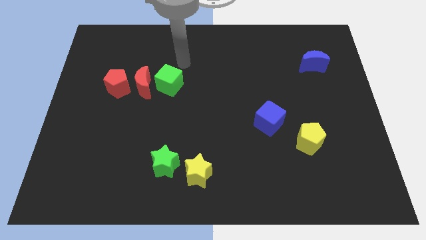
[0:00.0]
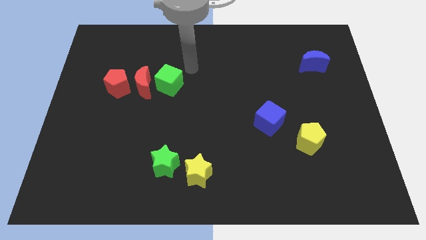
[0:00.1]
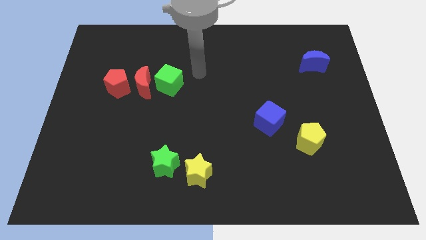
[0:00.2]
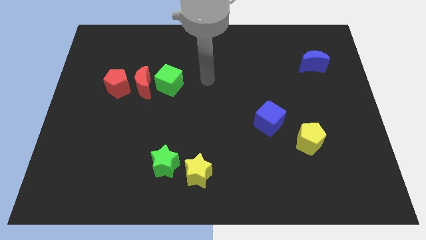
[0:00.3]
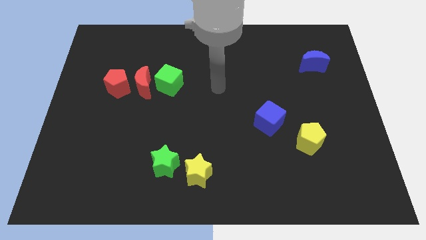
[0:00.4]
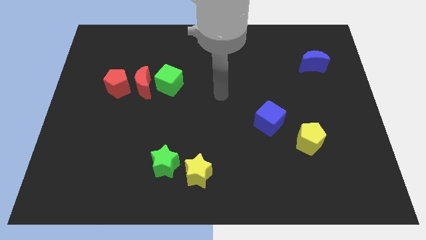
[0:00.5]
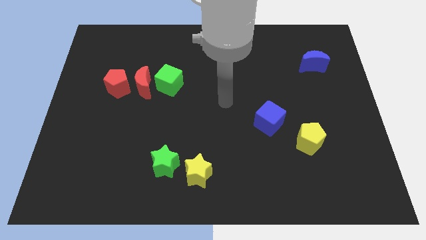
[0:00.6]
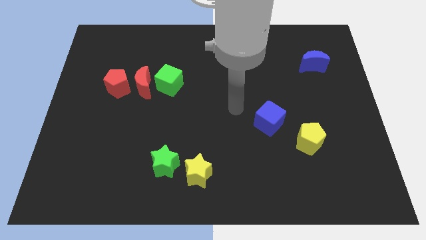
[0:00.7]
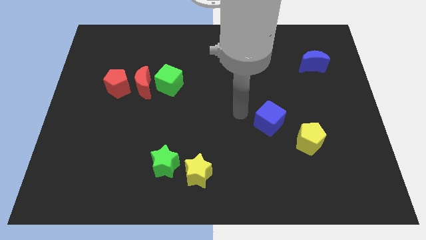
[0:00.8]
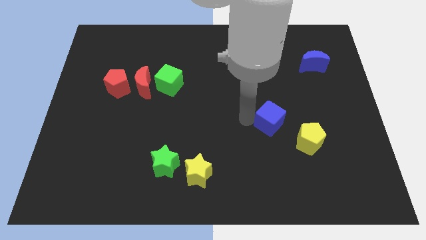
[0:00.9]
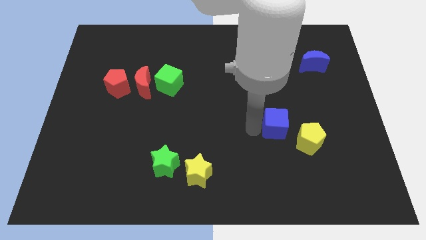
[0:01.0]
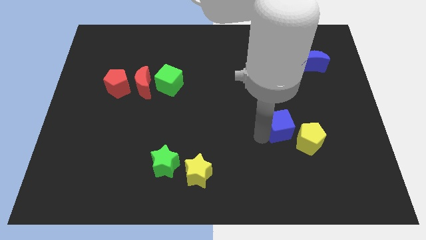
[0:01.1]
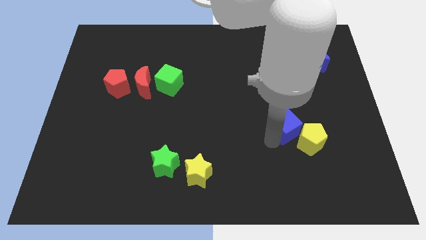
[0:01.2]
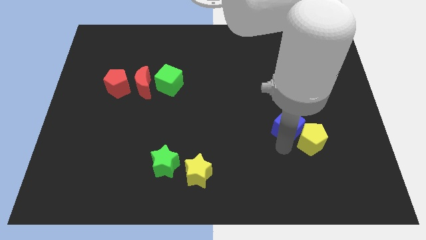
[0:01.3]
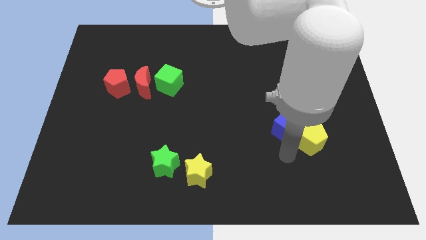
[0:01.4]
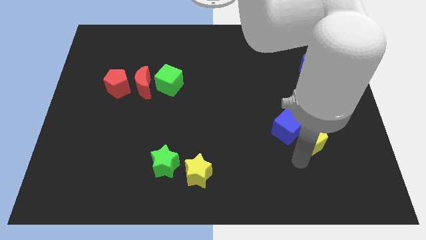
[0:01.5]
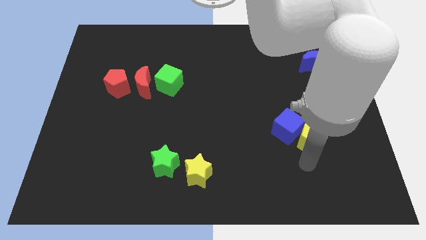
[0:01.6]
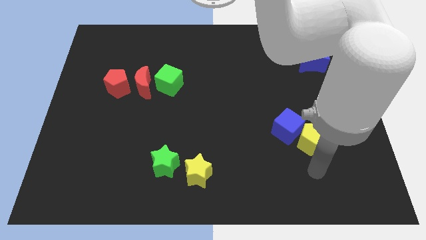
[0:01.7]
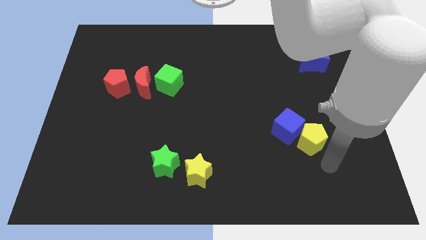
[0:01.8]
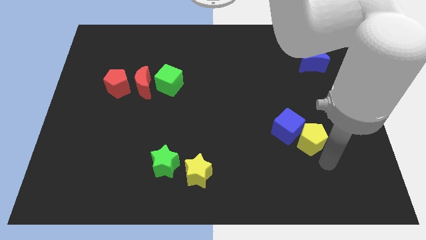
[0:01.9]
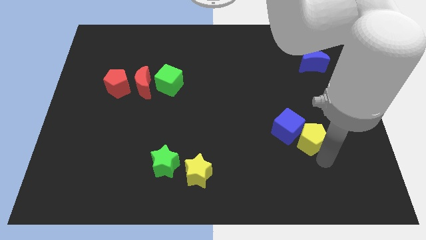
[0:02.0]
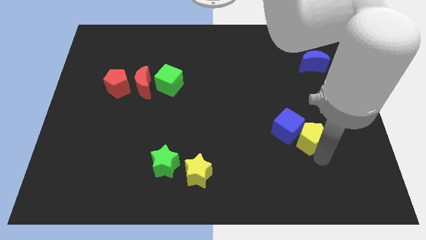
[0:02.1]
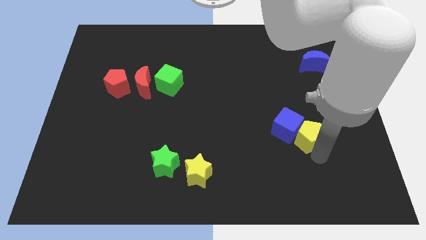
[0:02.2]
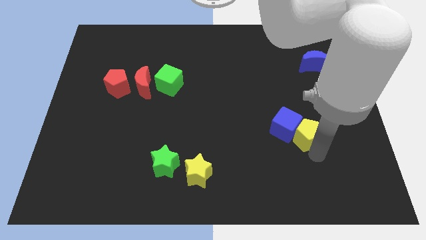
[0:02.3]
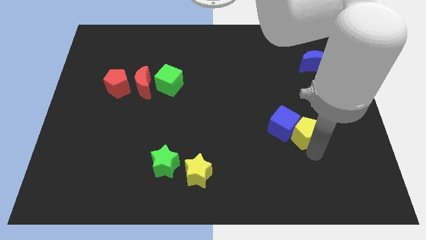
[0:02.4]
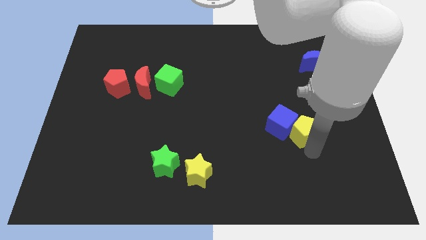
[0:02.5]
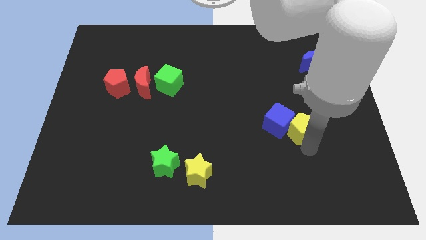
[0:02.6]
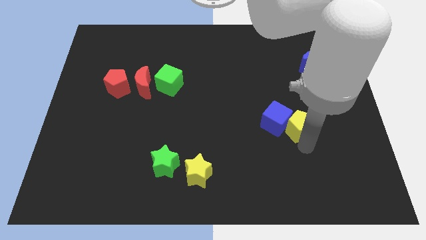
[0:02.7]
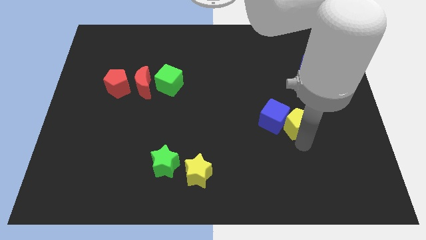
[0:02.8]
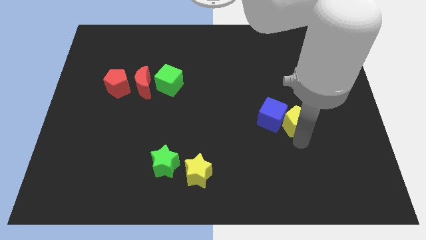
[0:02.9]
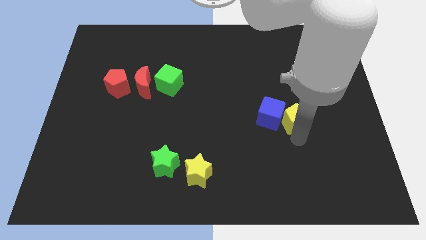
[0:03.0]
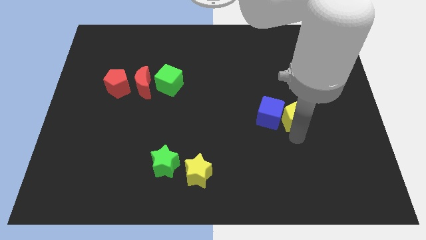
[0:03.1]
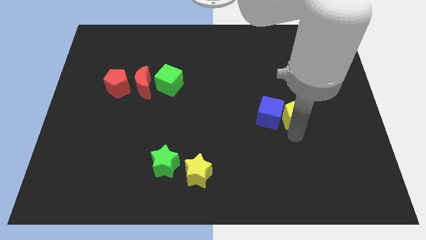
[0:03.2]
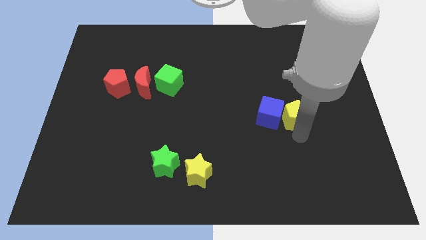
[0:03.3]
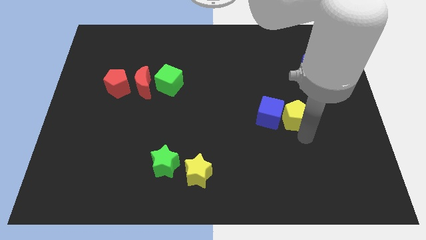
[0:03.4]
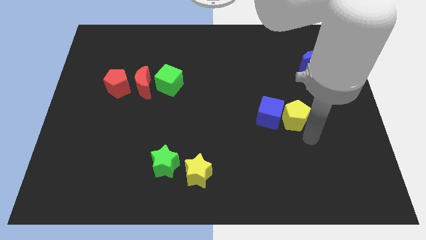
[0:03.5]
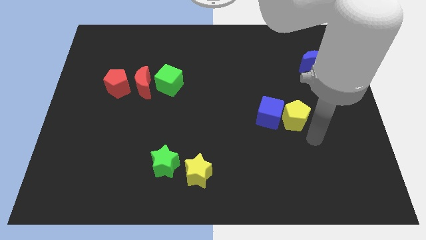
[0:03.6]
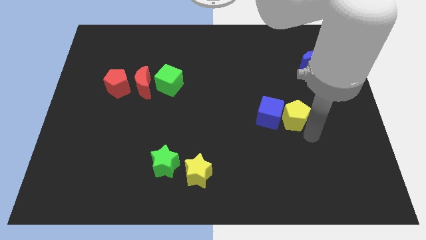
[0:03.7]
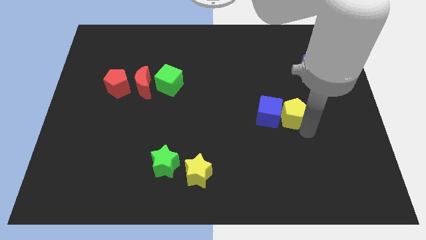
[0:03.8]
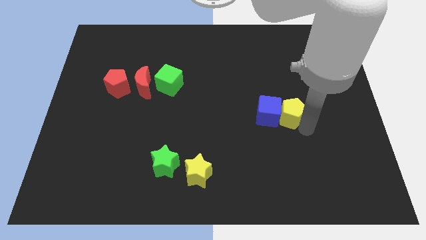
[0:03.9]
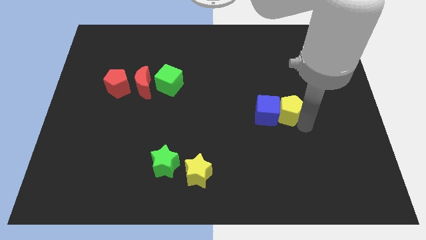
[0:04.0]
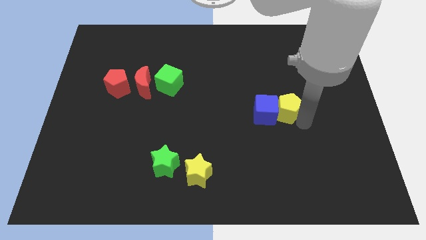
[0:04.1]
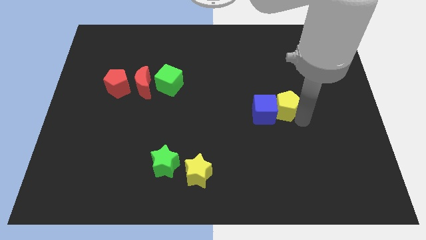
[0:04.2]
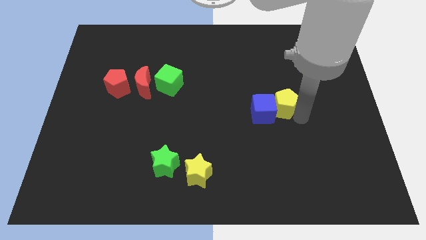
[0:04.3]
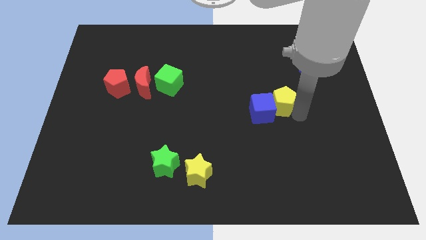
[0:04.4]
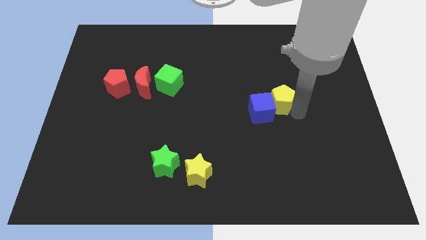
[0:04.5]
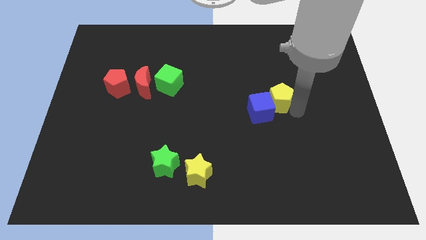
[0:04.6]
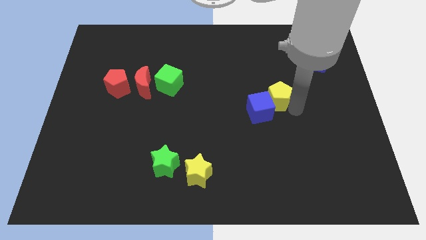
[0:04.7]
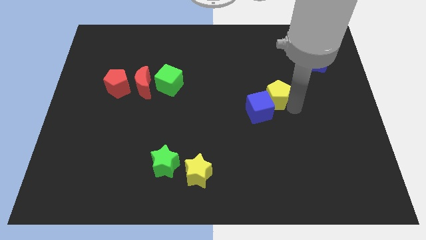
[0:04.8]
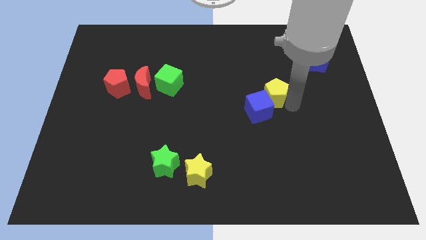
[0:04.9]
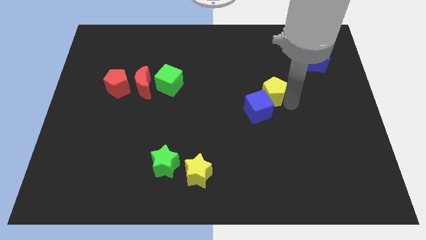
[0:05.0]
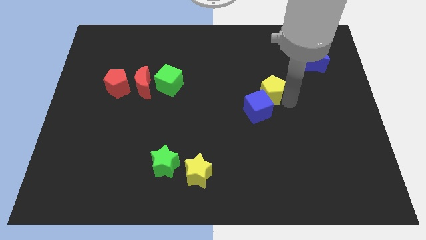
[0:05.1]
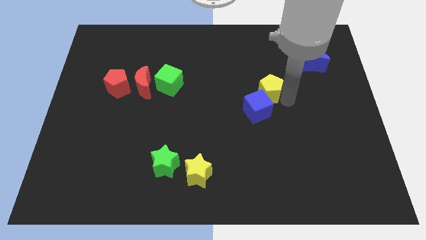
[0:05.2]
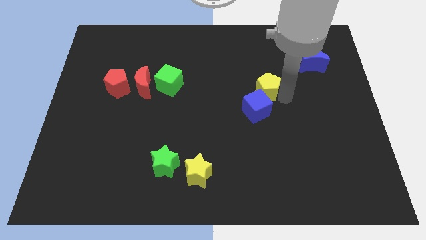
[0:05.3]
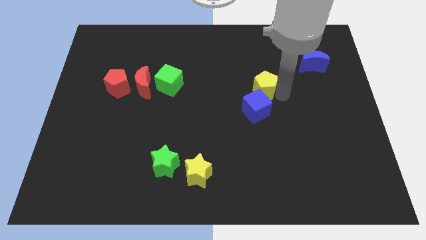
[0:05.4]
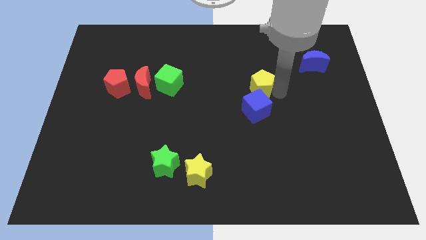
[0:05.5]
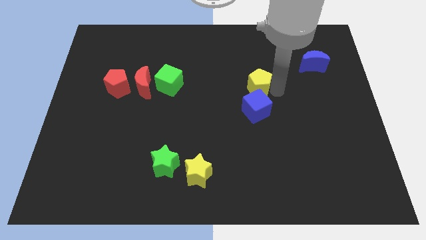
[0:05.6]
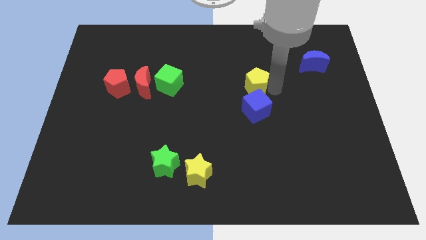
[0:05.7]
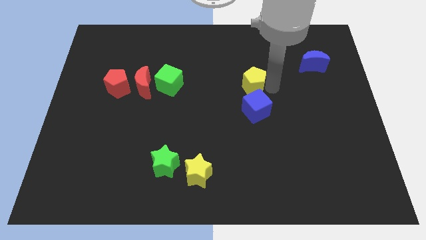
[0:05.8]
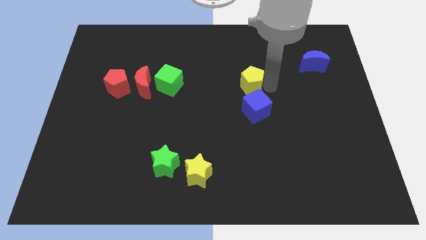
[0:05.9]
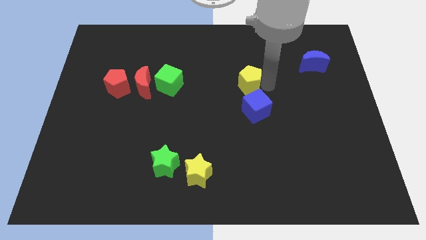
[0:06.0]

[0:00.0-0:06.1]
push the yellow pentagon upwards and then left

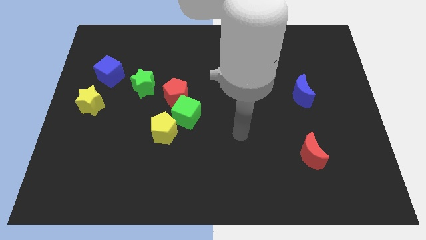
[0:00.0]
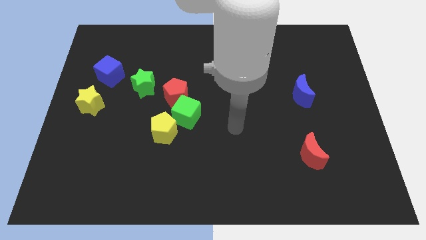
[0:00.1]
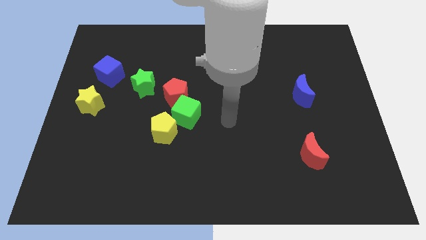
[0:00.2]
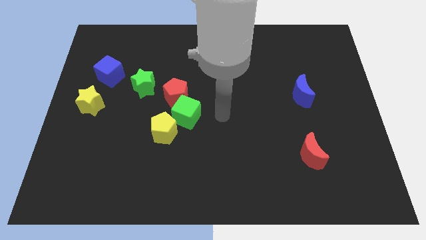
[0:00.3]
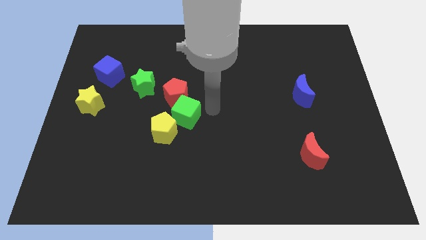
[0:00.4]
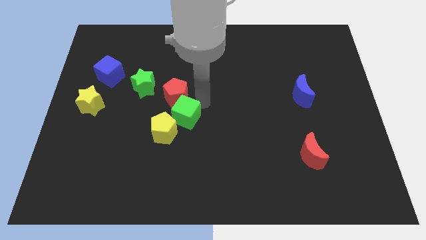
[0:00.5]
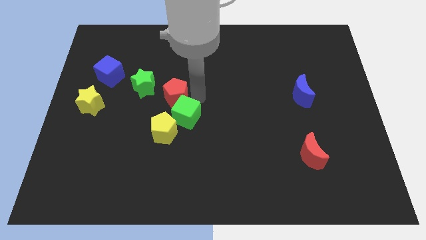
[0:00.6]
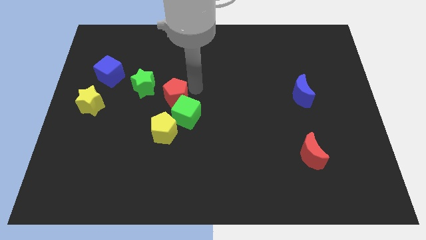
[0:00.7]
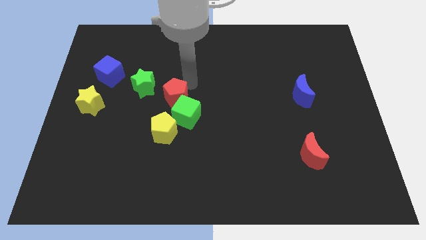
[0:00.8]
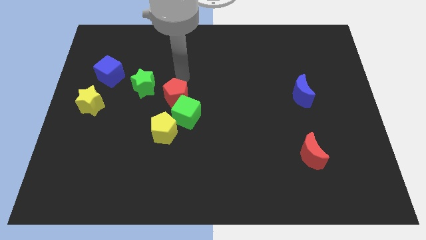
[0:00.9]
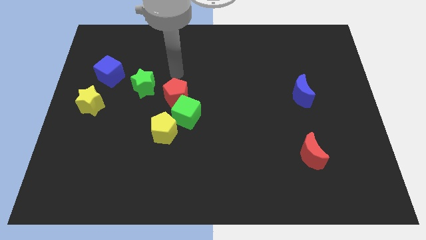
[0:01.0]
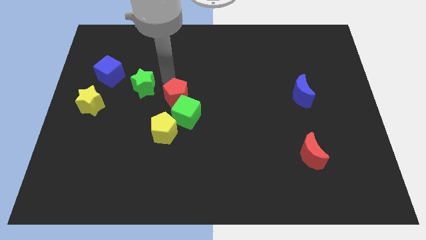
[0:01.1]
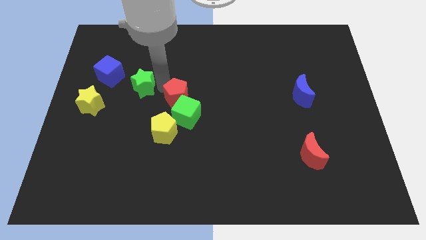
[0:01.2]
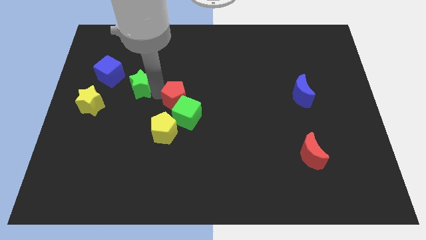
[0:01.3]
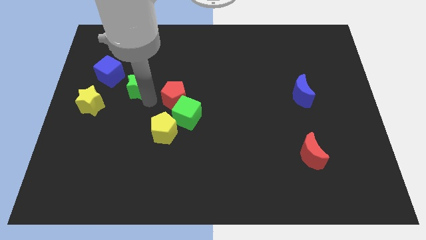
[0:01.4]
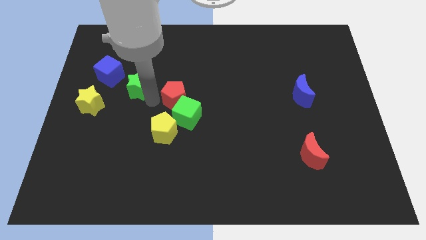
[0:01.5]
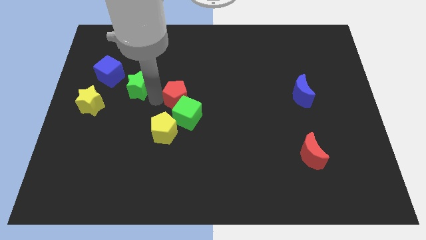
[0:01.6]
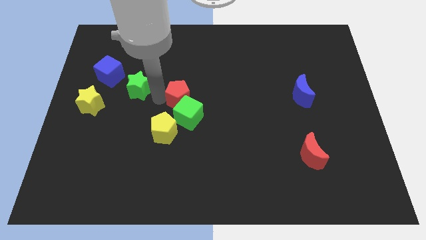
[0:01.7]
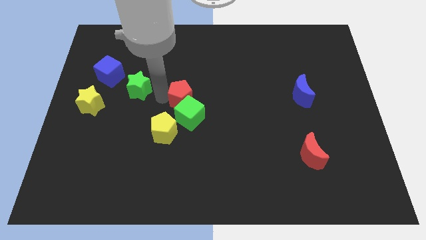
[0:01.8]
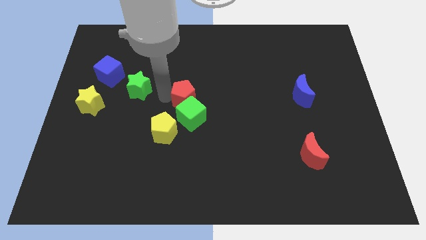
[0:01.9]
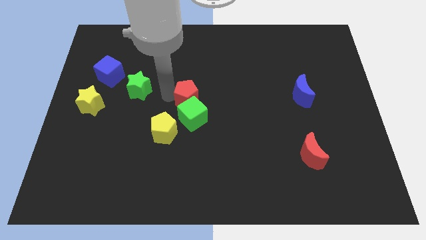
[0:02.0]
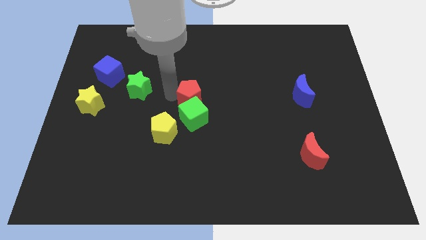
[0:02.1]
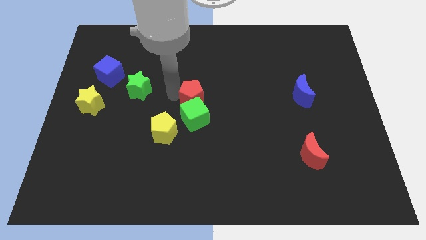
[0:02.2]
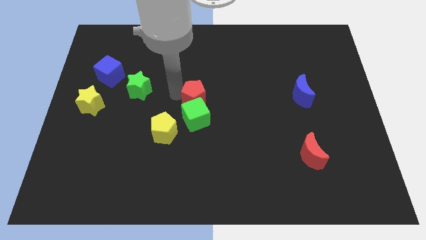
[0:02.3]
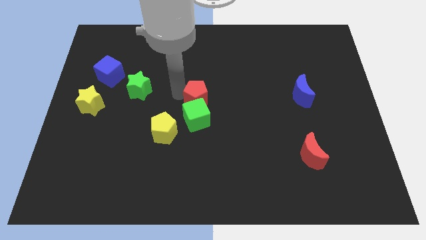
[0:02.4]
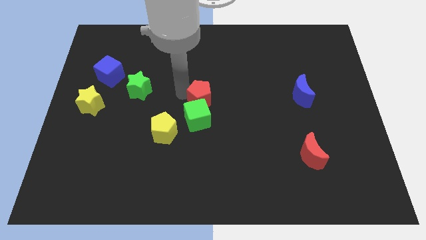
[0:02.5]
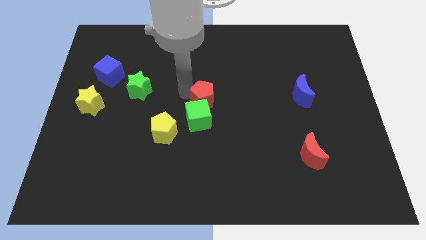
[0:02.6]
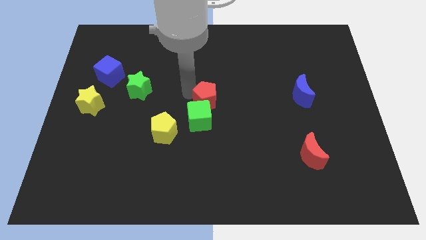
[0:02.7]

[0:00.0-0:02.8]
slightly slide the red pentagon to the right
